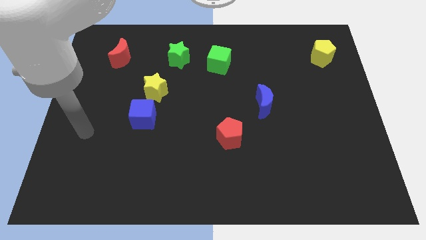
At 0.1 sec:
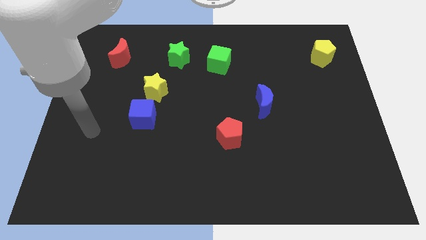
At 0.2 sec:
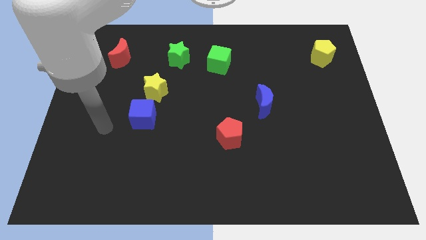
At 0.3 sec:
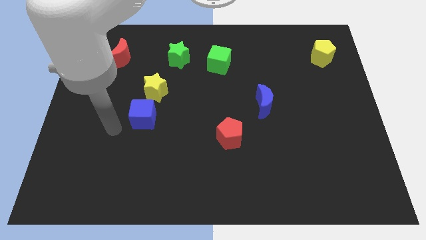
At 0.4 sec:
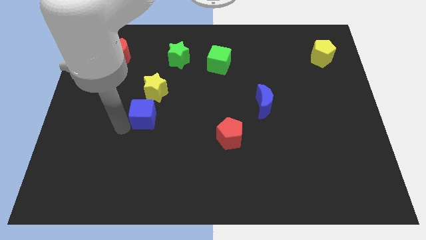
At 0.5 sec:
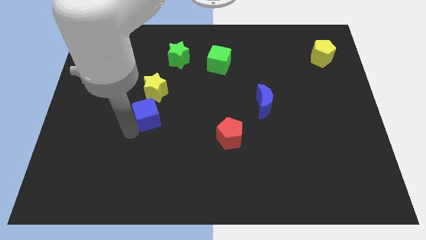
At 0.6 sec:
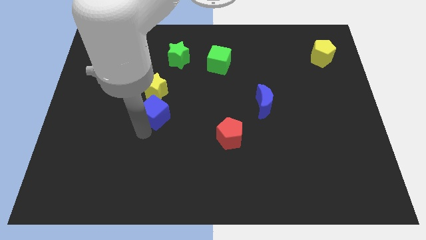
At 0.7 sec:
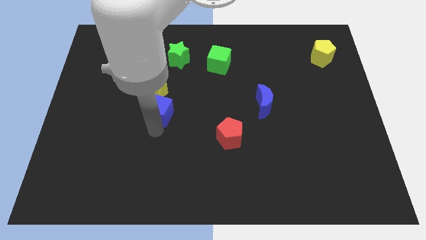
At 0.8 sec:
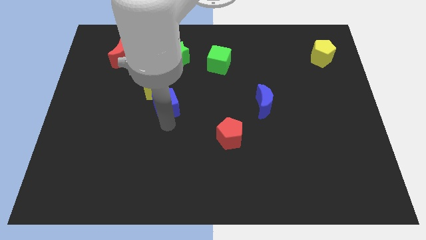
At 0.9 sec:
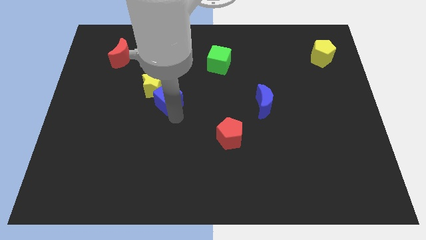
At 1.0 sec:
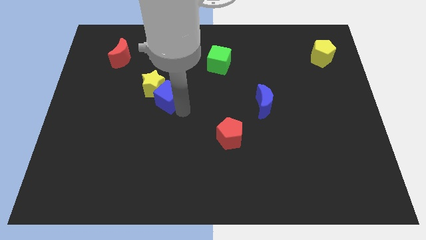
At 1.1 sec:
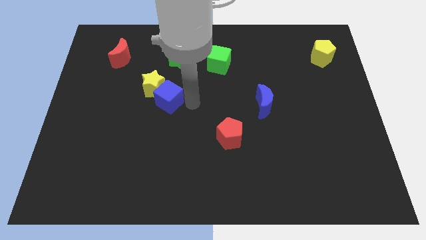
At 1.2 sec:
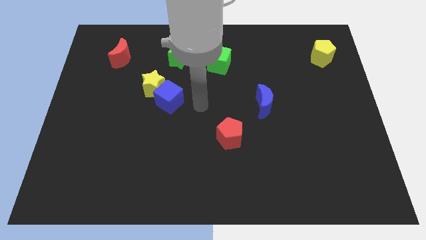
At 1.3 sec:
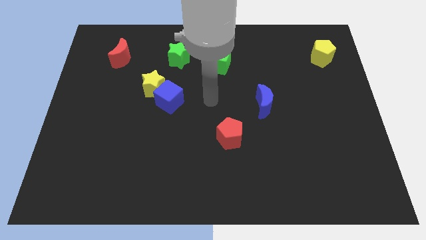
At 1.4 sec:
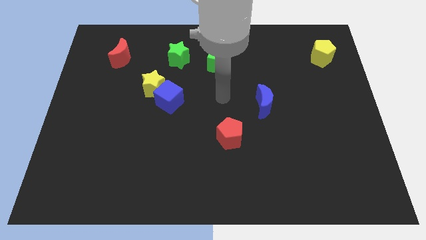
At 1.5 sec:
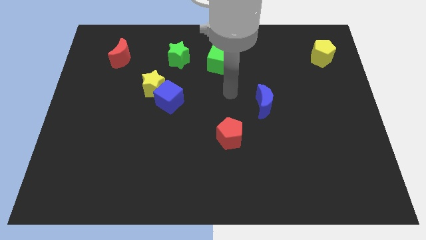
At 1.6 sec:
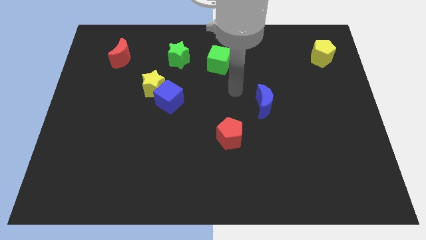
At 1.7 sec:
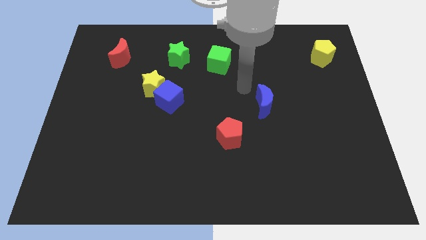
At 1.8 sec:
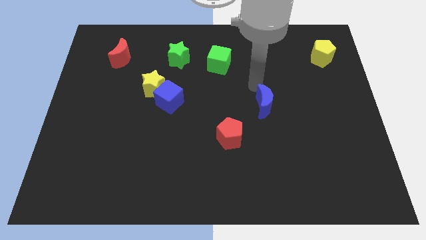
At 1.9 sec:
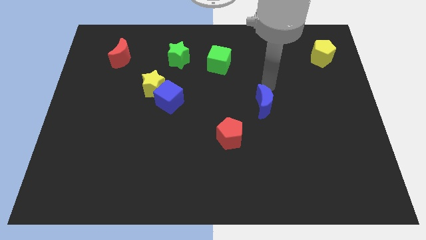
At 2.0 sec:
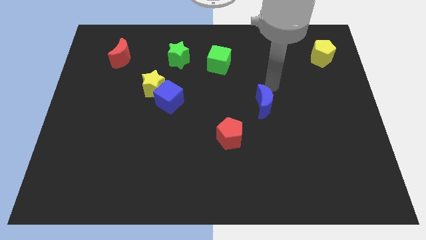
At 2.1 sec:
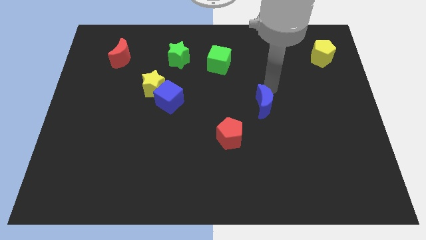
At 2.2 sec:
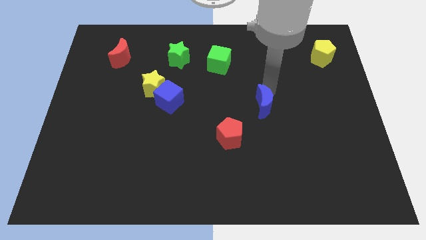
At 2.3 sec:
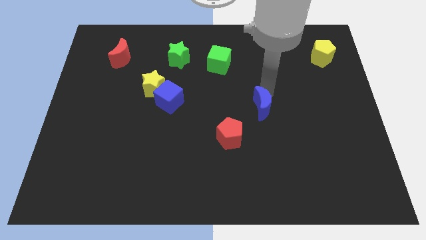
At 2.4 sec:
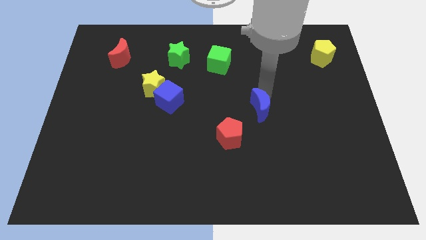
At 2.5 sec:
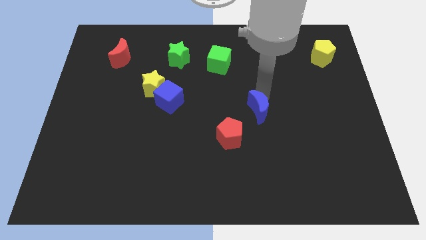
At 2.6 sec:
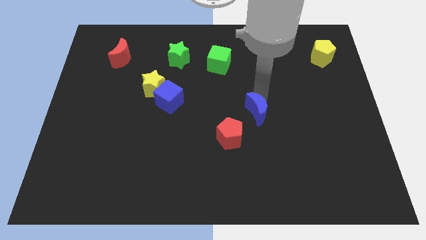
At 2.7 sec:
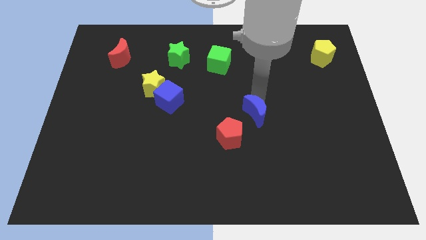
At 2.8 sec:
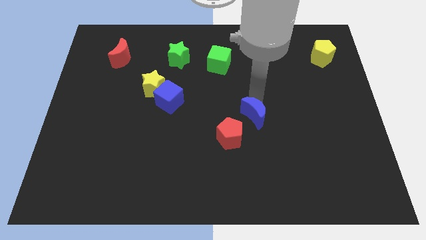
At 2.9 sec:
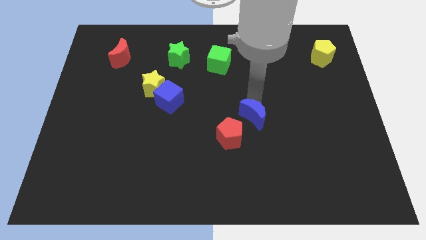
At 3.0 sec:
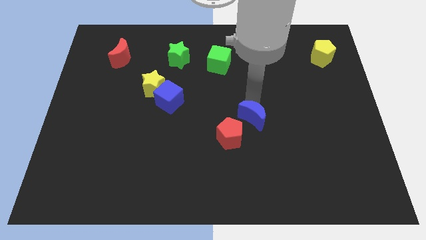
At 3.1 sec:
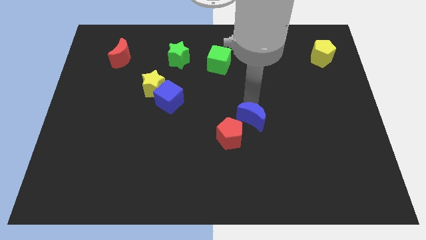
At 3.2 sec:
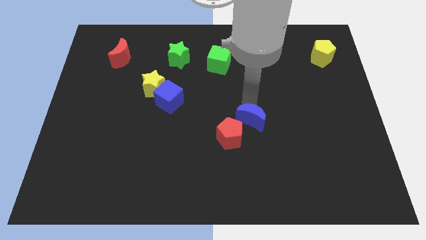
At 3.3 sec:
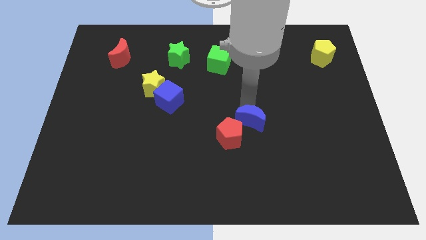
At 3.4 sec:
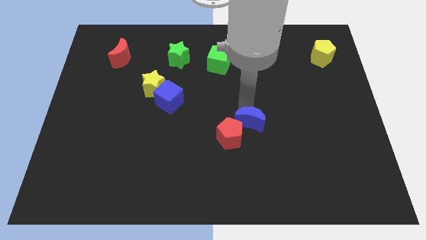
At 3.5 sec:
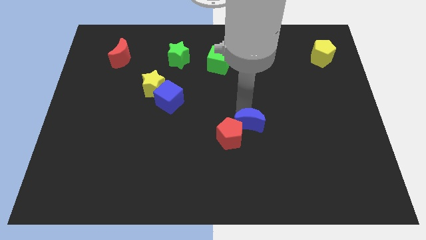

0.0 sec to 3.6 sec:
move the blue moon downwards and then left a little bit

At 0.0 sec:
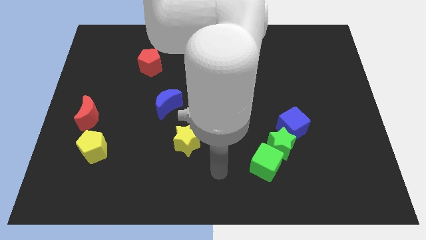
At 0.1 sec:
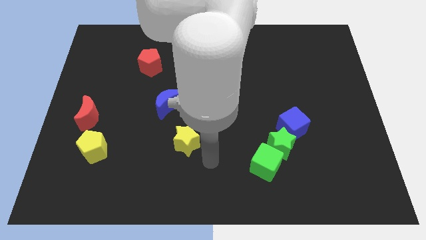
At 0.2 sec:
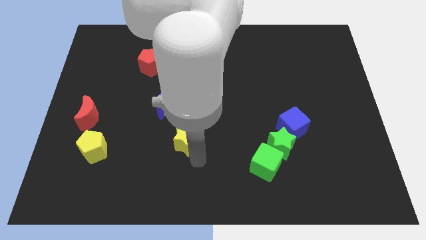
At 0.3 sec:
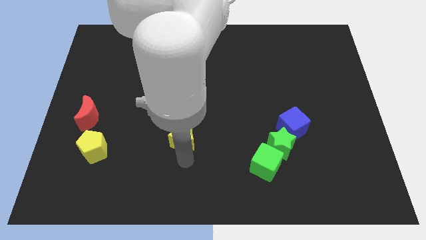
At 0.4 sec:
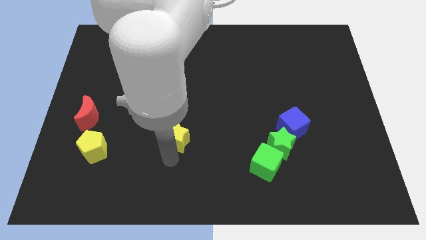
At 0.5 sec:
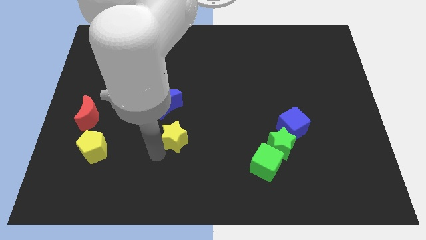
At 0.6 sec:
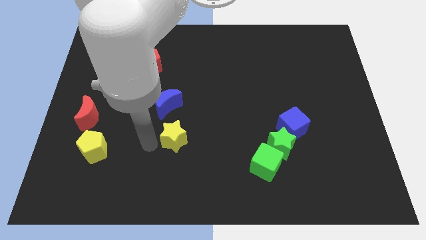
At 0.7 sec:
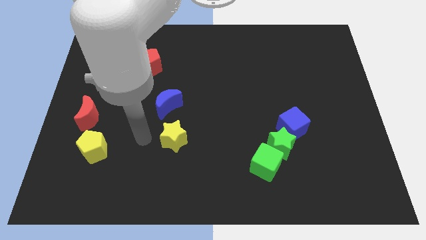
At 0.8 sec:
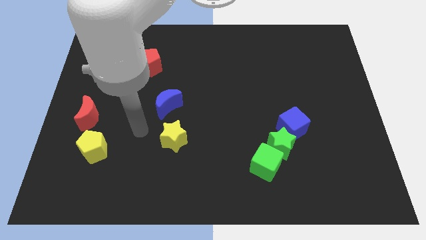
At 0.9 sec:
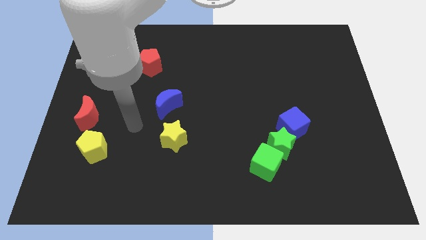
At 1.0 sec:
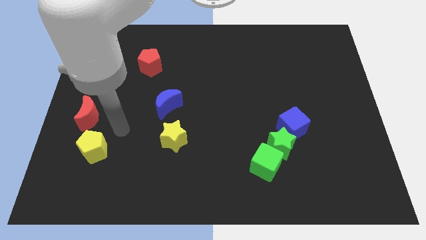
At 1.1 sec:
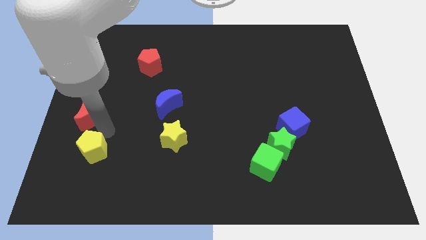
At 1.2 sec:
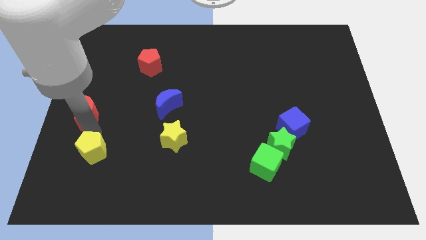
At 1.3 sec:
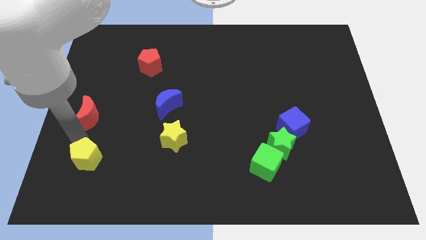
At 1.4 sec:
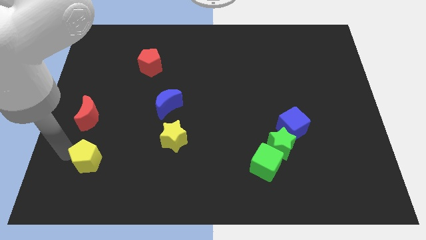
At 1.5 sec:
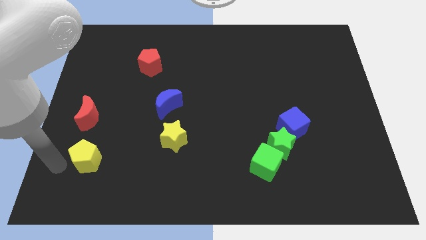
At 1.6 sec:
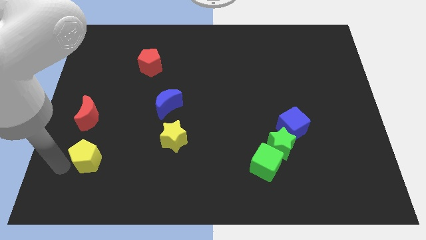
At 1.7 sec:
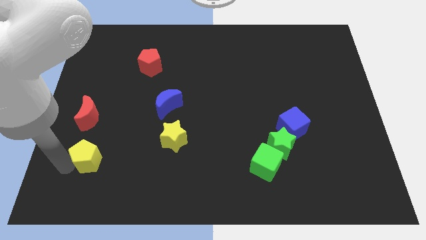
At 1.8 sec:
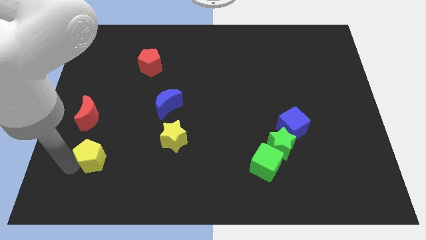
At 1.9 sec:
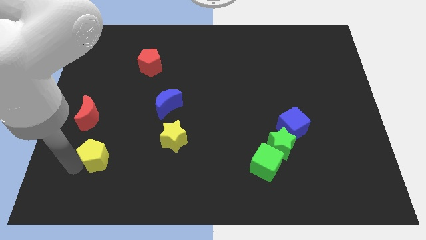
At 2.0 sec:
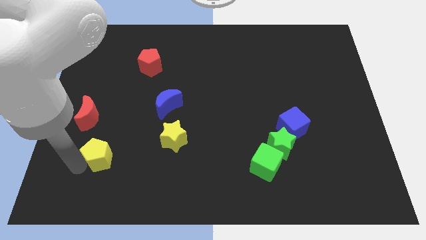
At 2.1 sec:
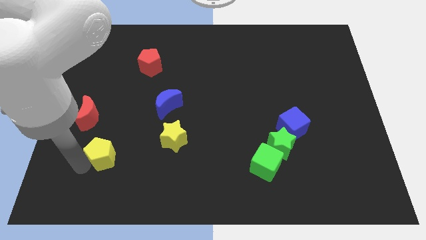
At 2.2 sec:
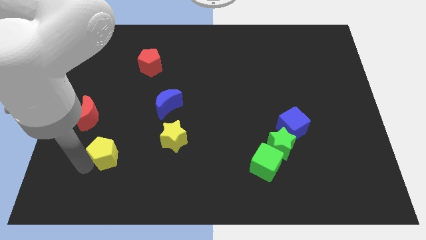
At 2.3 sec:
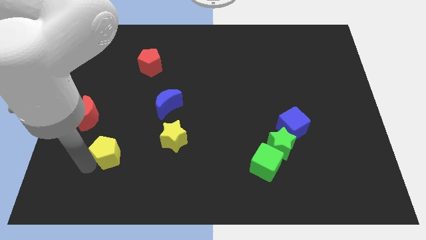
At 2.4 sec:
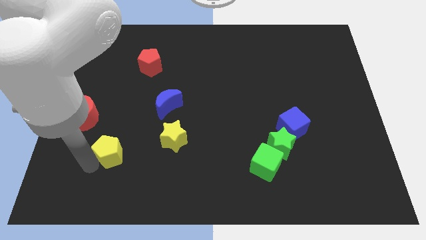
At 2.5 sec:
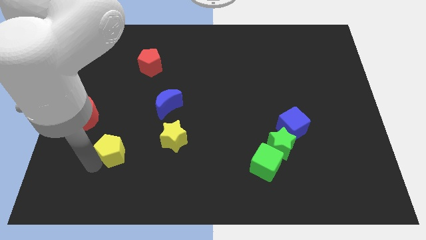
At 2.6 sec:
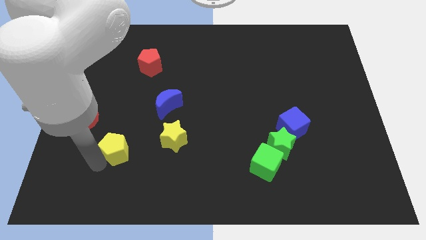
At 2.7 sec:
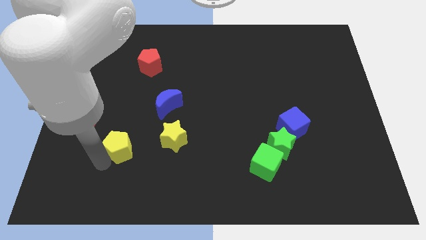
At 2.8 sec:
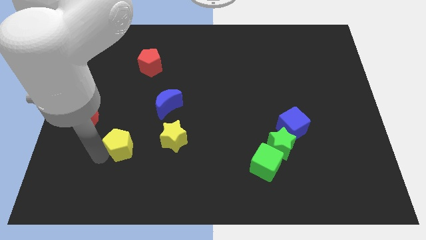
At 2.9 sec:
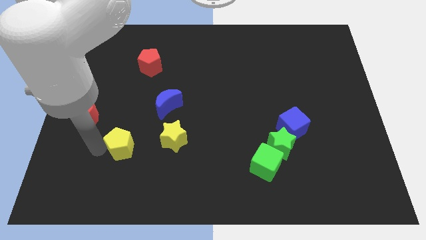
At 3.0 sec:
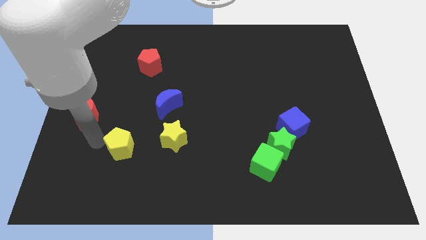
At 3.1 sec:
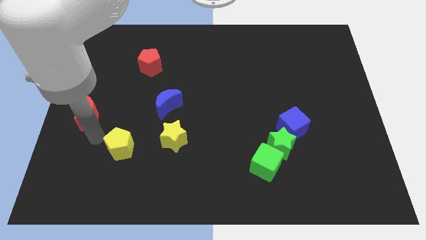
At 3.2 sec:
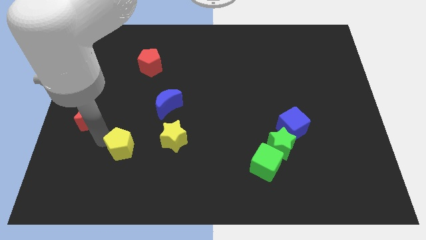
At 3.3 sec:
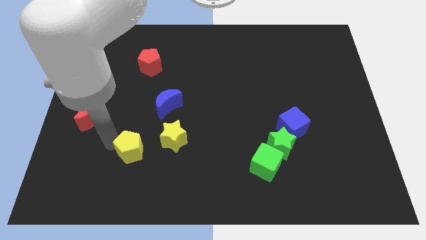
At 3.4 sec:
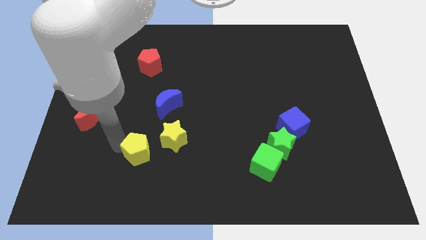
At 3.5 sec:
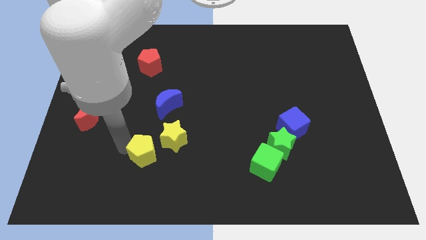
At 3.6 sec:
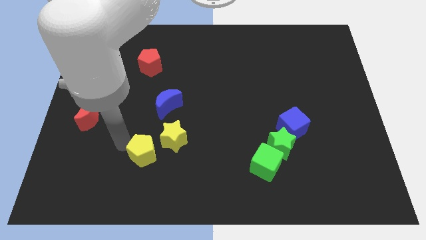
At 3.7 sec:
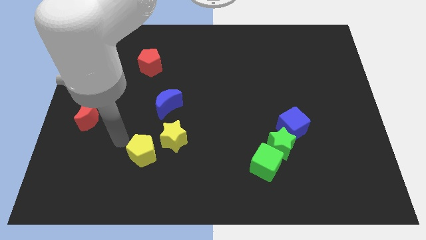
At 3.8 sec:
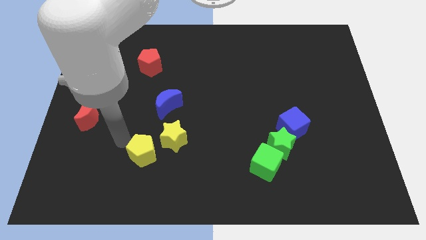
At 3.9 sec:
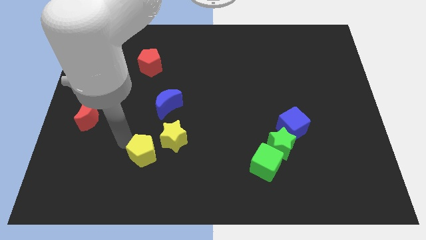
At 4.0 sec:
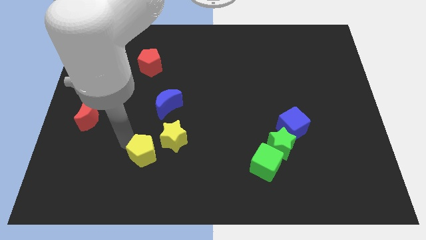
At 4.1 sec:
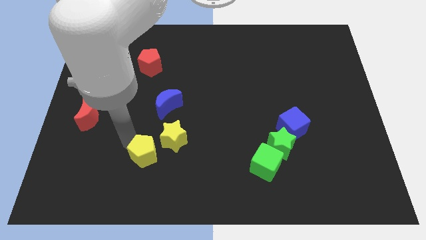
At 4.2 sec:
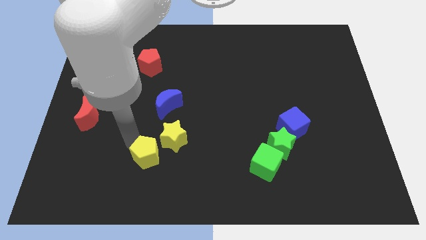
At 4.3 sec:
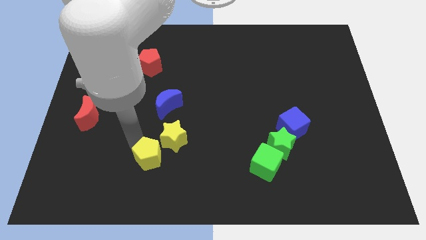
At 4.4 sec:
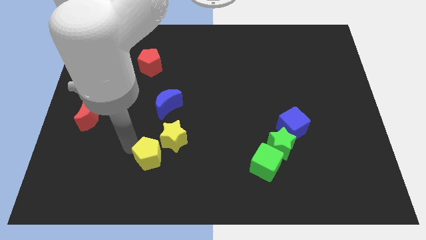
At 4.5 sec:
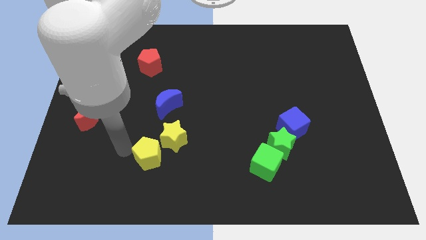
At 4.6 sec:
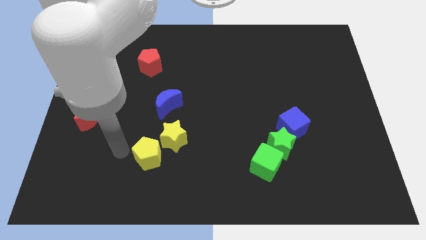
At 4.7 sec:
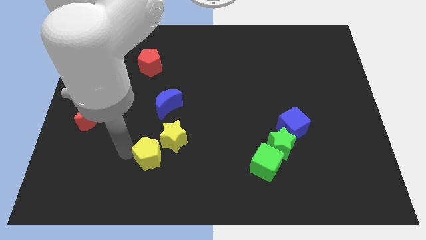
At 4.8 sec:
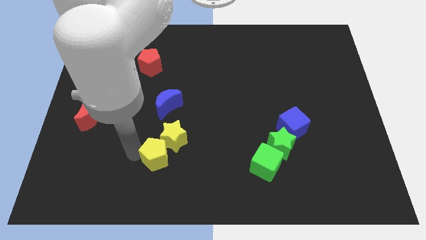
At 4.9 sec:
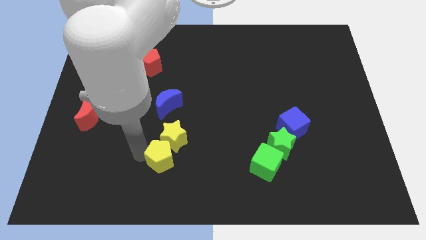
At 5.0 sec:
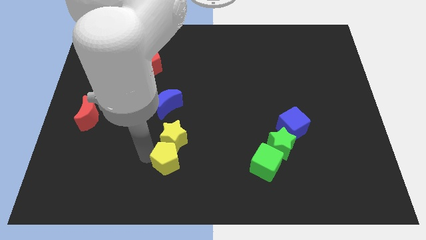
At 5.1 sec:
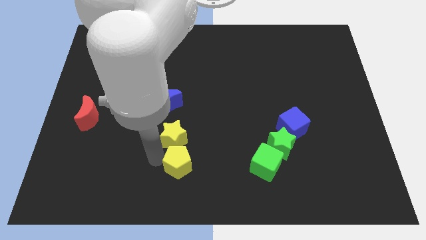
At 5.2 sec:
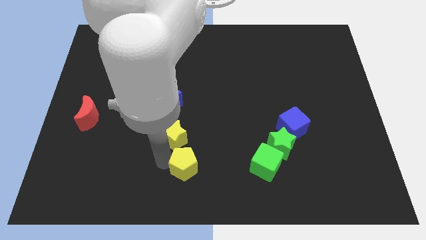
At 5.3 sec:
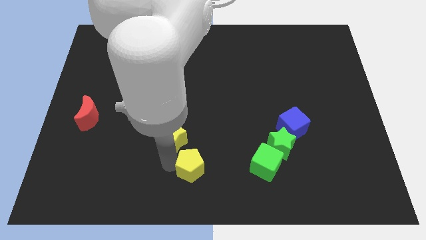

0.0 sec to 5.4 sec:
push the yellow pentagon right
